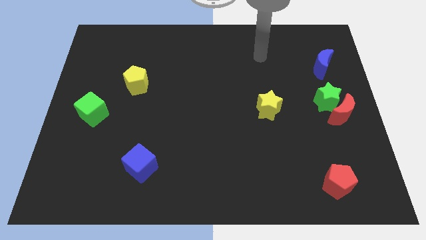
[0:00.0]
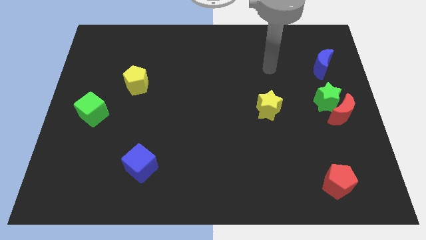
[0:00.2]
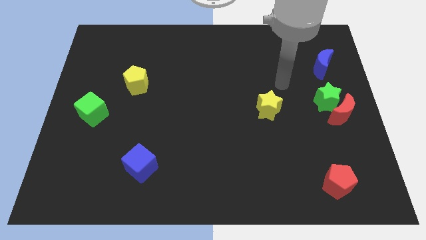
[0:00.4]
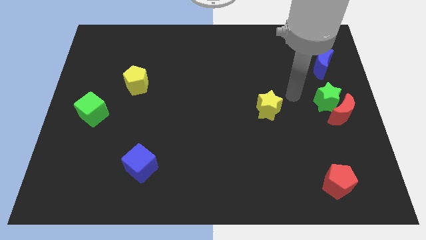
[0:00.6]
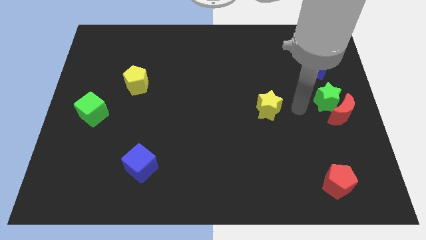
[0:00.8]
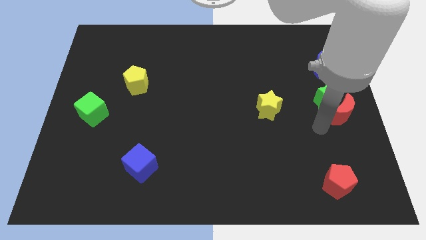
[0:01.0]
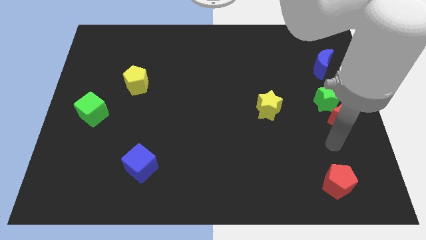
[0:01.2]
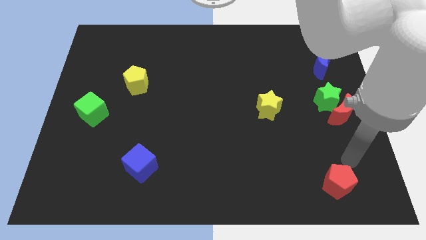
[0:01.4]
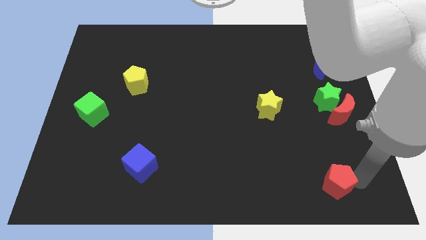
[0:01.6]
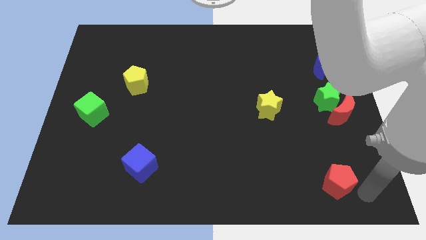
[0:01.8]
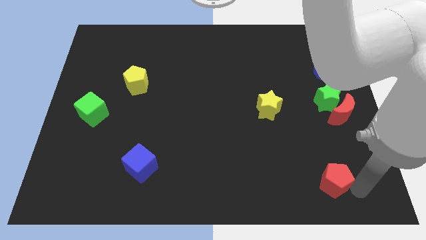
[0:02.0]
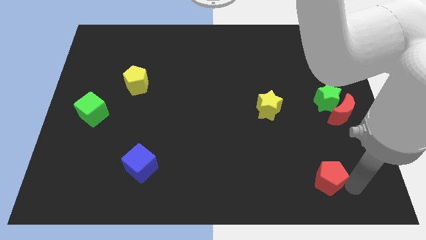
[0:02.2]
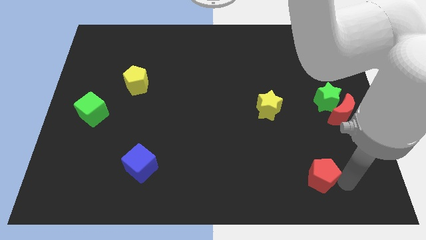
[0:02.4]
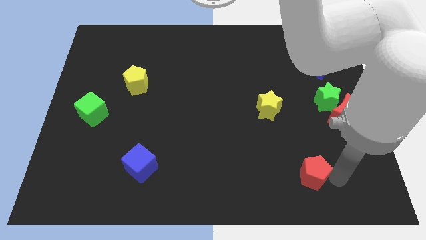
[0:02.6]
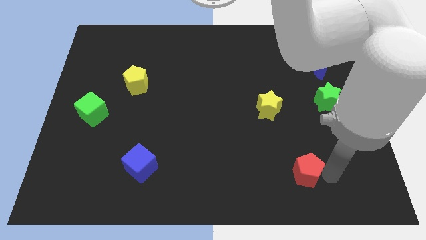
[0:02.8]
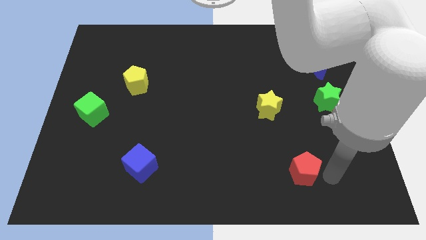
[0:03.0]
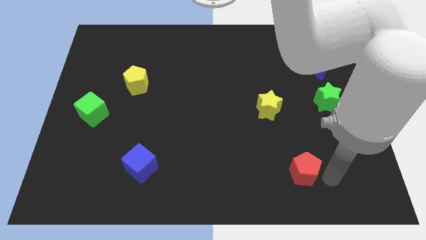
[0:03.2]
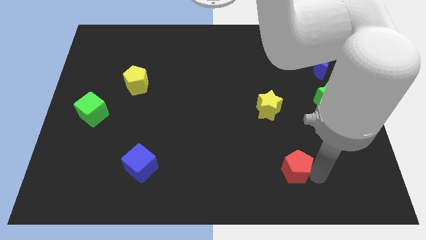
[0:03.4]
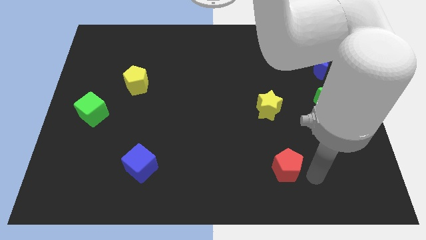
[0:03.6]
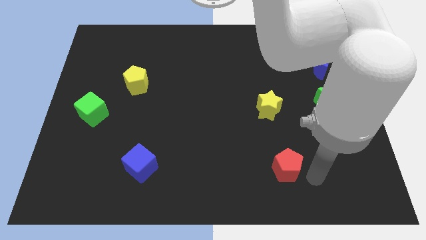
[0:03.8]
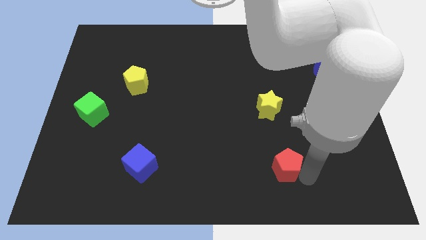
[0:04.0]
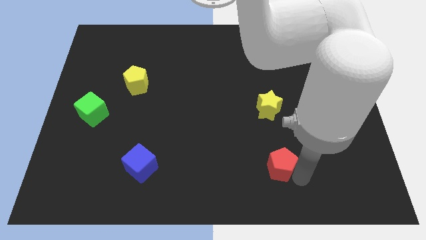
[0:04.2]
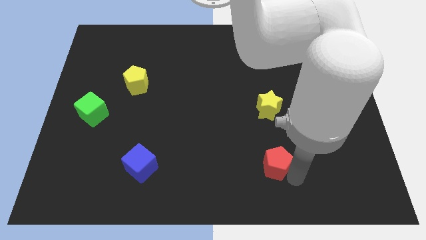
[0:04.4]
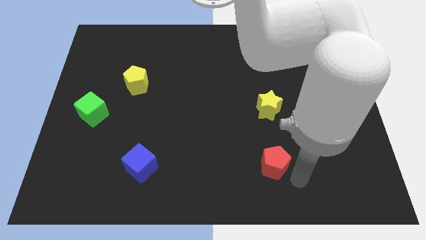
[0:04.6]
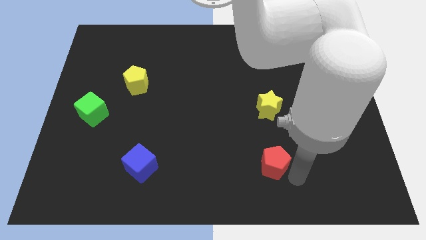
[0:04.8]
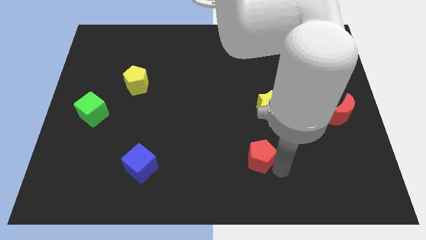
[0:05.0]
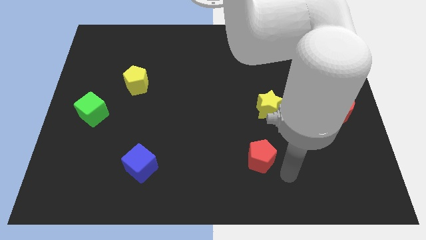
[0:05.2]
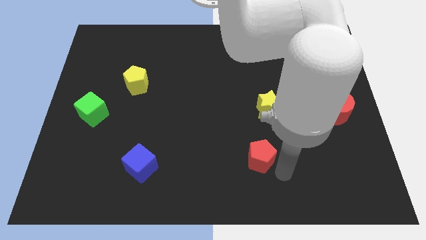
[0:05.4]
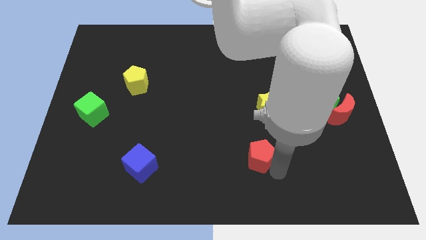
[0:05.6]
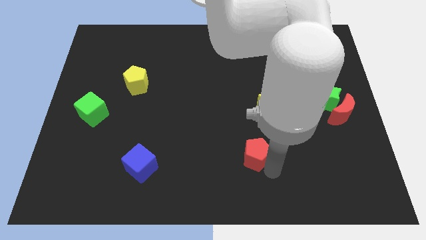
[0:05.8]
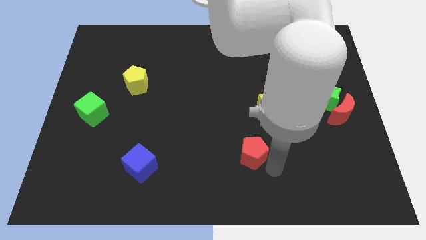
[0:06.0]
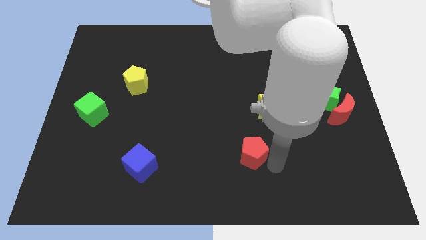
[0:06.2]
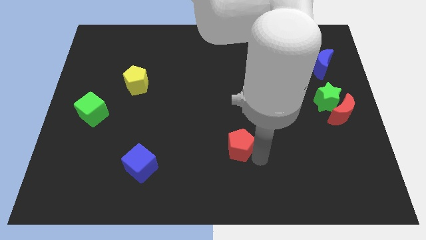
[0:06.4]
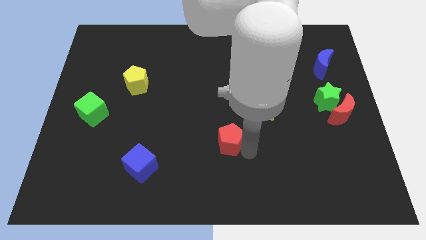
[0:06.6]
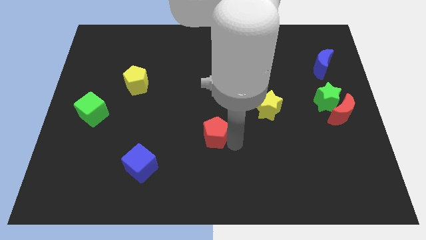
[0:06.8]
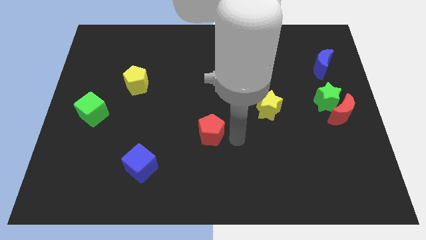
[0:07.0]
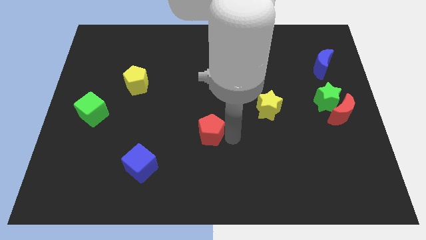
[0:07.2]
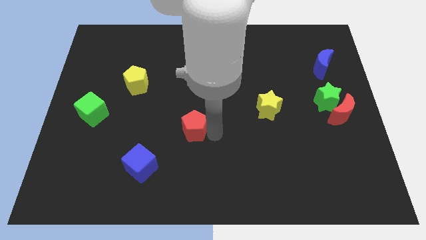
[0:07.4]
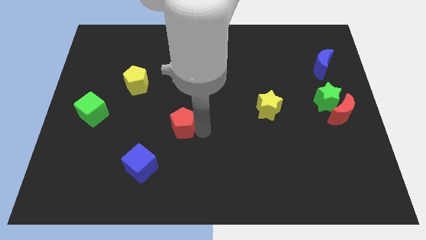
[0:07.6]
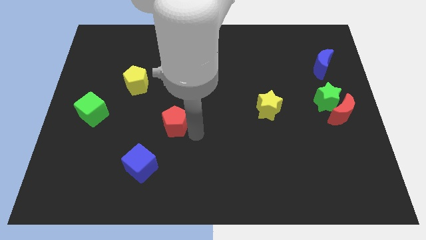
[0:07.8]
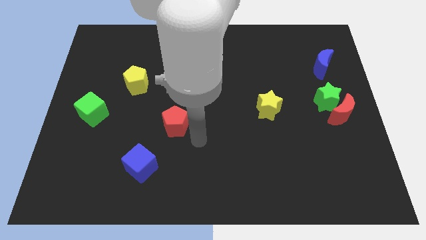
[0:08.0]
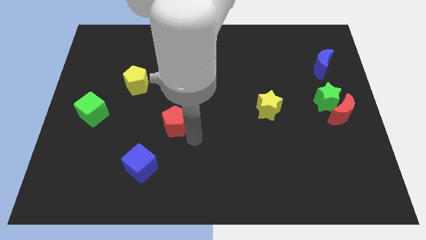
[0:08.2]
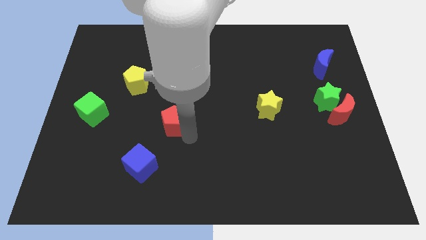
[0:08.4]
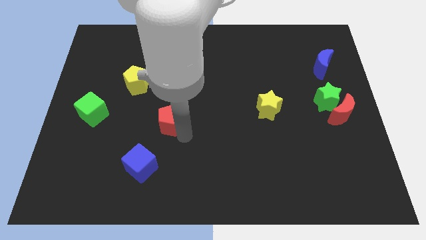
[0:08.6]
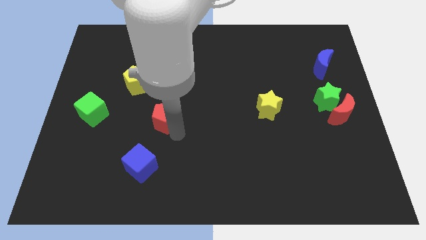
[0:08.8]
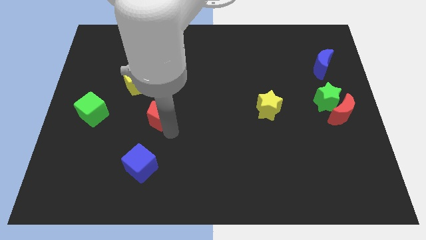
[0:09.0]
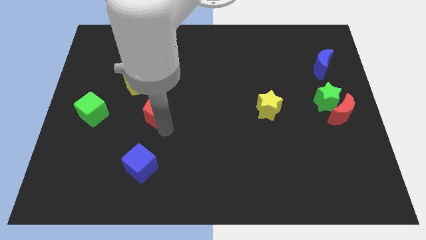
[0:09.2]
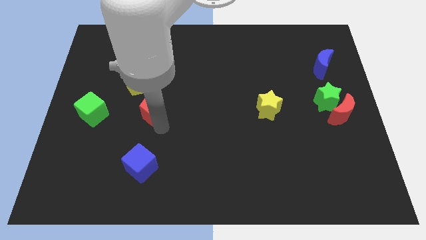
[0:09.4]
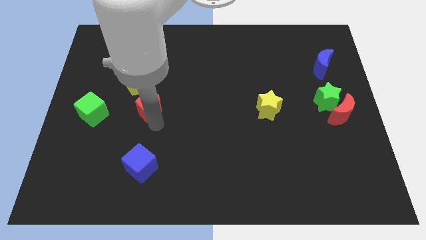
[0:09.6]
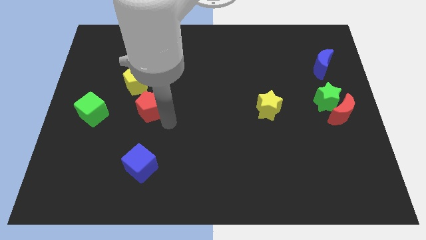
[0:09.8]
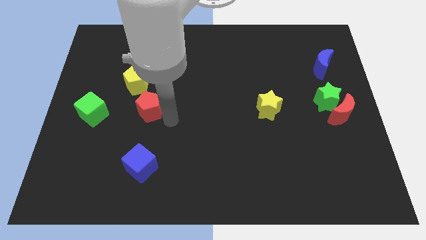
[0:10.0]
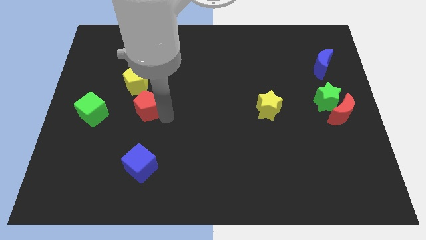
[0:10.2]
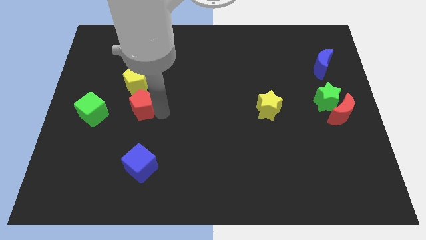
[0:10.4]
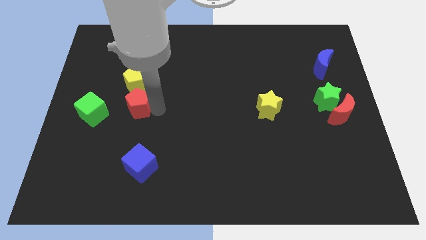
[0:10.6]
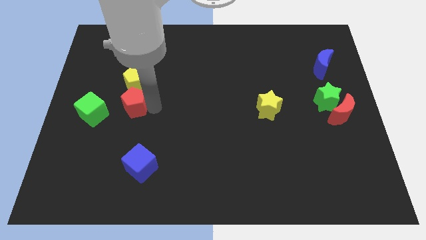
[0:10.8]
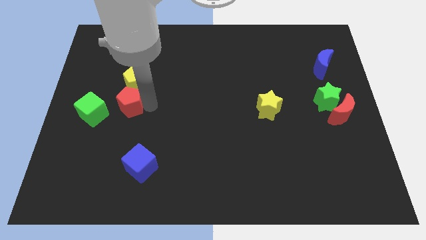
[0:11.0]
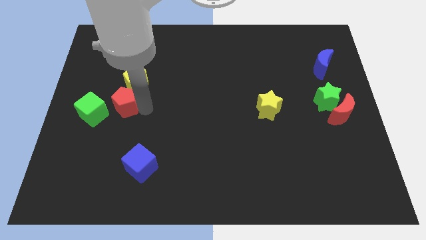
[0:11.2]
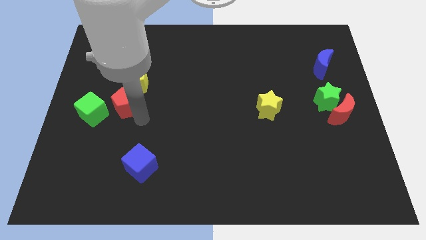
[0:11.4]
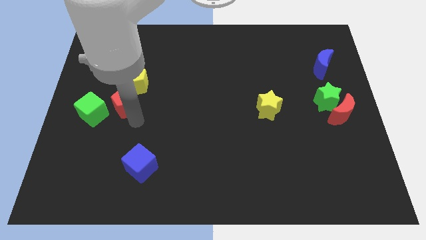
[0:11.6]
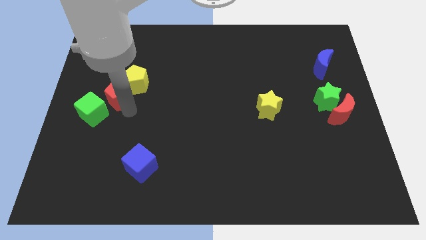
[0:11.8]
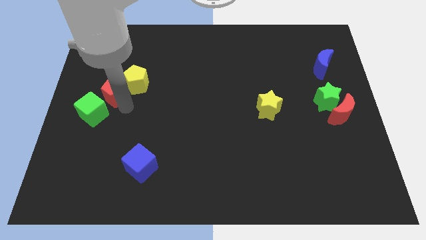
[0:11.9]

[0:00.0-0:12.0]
move the red pentagon left of the yellow pentagon

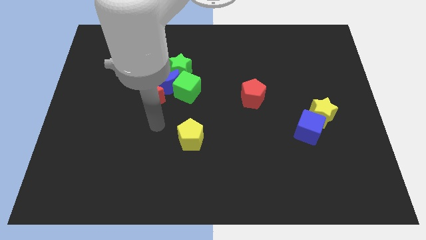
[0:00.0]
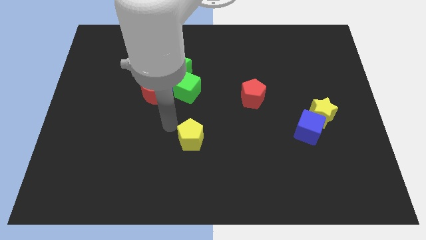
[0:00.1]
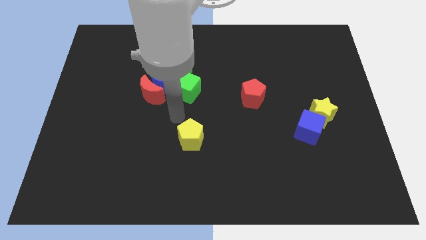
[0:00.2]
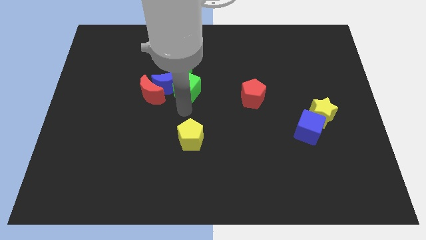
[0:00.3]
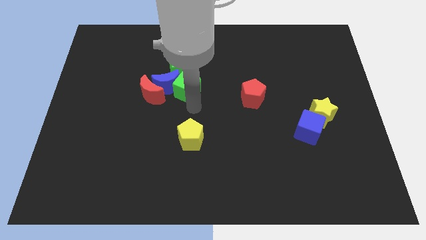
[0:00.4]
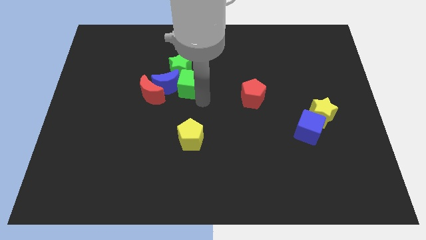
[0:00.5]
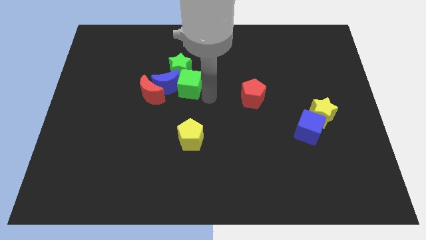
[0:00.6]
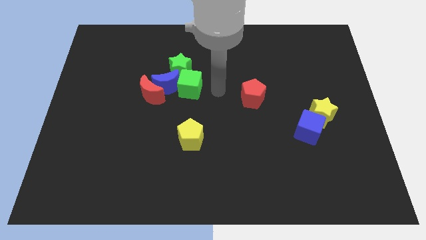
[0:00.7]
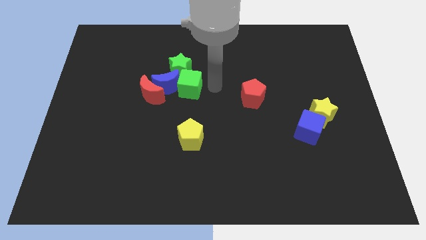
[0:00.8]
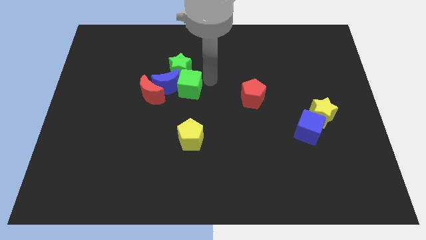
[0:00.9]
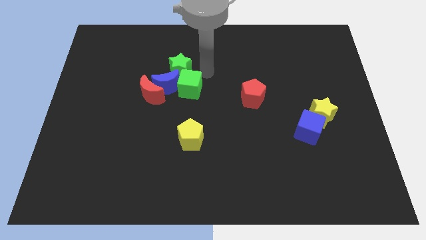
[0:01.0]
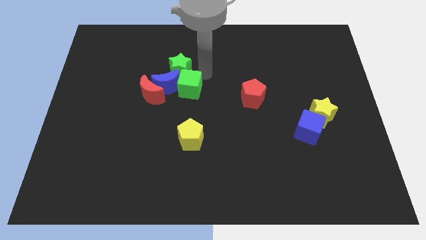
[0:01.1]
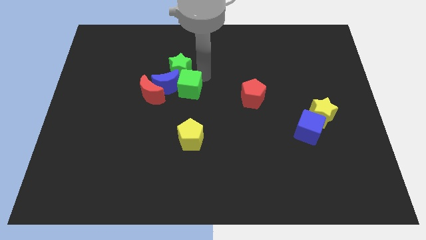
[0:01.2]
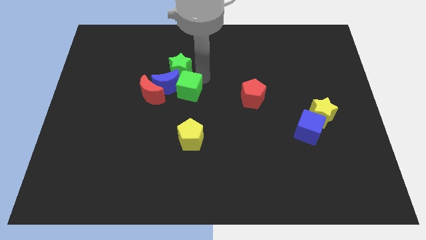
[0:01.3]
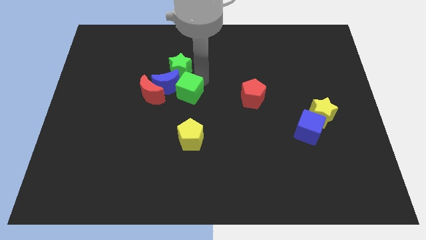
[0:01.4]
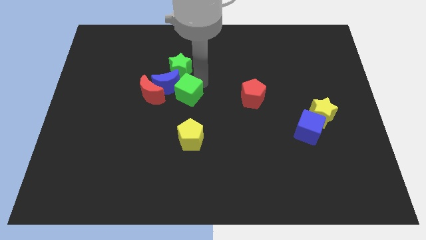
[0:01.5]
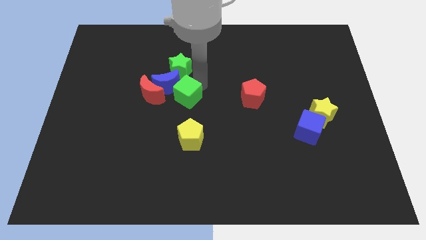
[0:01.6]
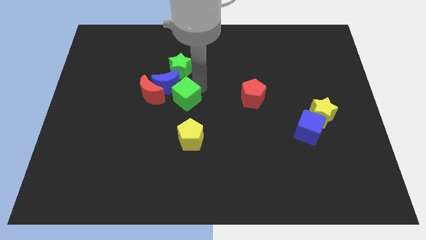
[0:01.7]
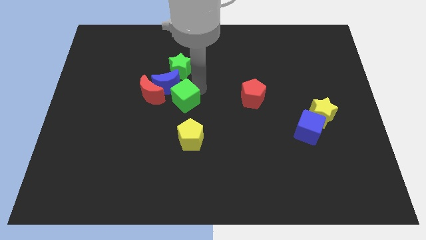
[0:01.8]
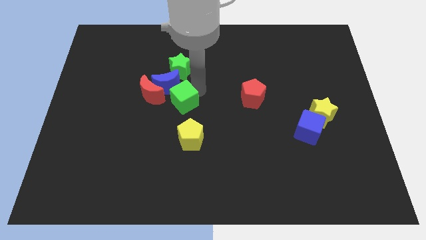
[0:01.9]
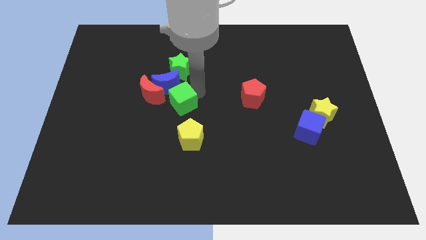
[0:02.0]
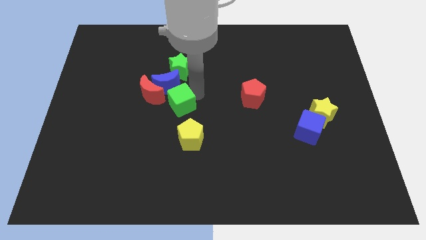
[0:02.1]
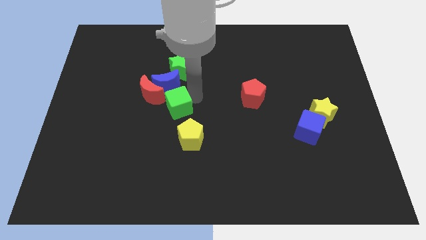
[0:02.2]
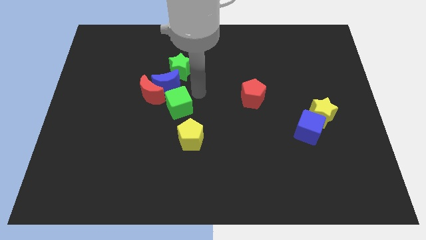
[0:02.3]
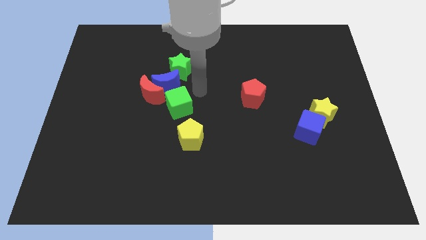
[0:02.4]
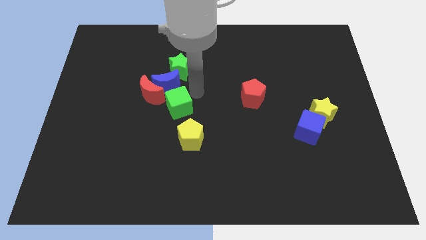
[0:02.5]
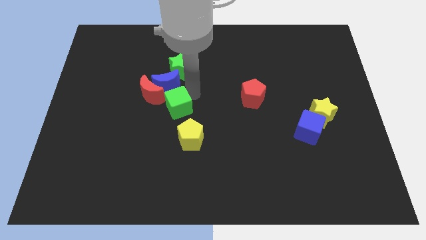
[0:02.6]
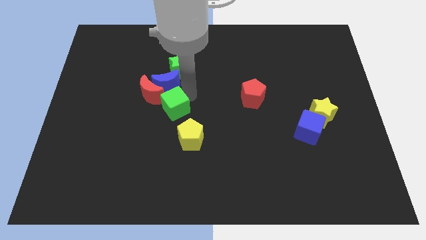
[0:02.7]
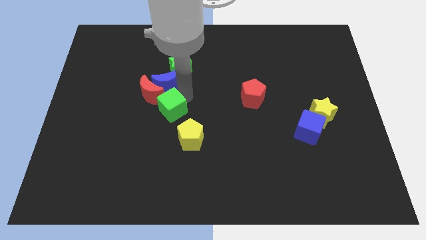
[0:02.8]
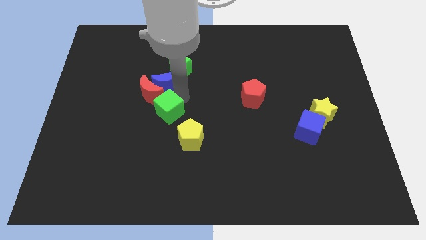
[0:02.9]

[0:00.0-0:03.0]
put the green cube to the bottom side of the red moon
